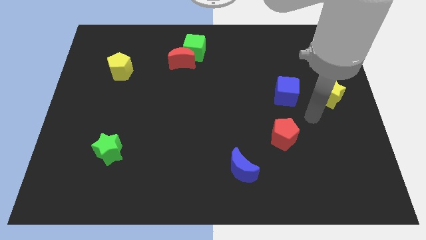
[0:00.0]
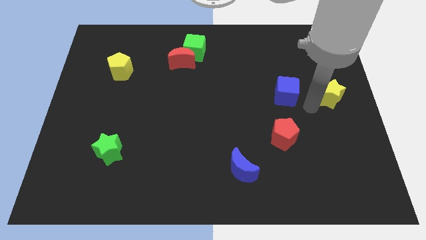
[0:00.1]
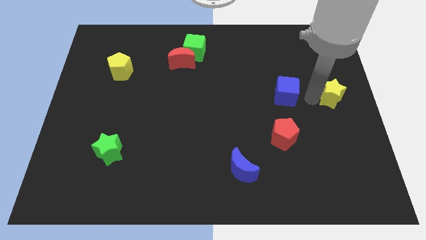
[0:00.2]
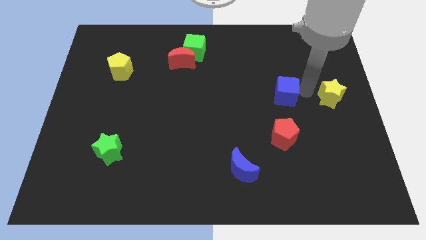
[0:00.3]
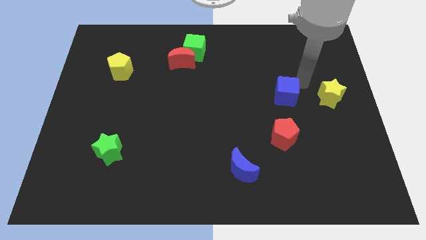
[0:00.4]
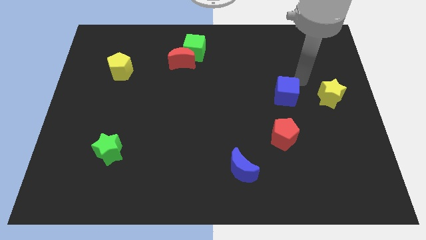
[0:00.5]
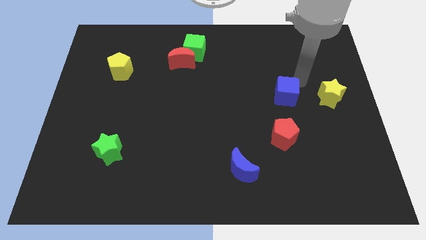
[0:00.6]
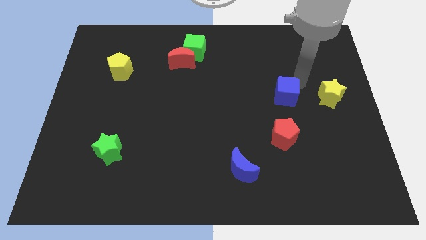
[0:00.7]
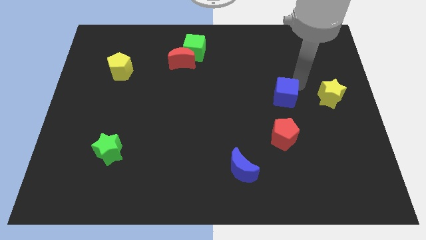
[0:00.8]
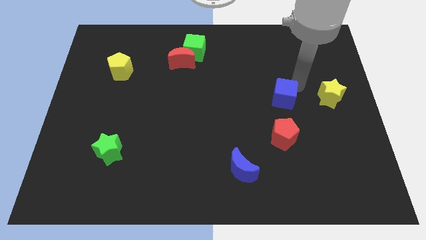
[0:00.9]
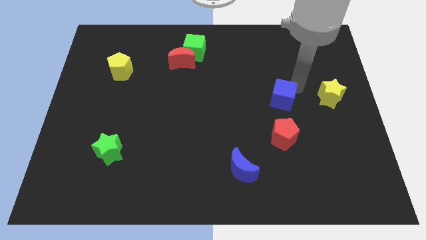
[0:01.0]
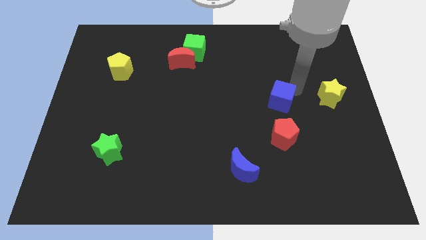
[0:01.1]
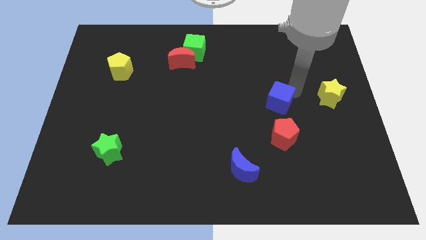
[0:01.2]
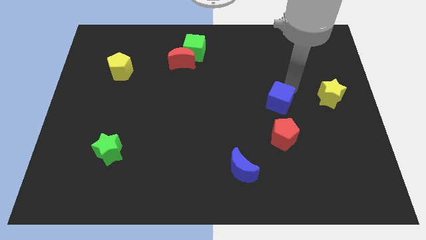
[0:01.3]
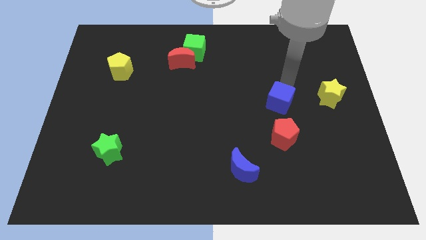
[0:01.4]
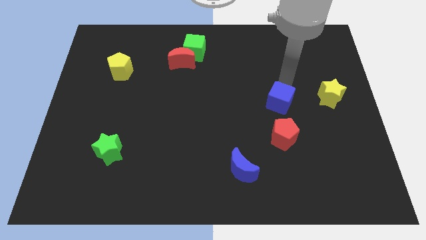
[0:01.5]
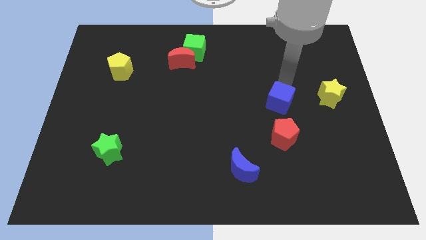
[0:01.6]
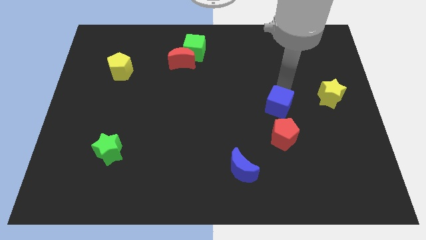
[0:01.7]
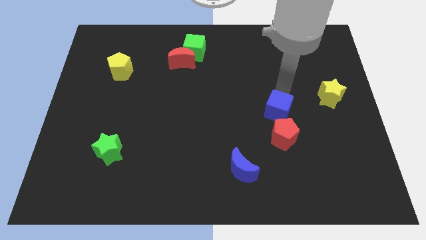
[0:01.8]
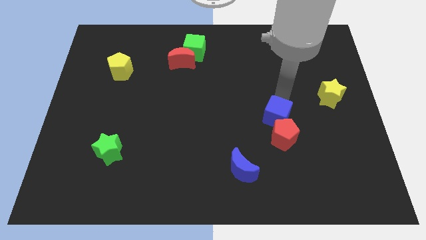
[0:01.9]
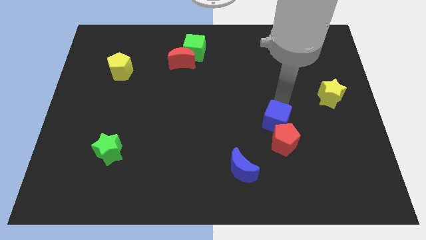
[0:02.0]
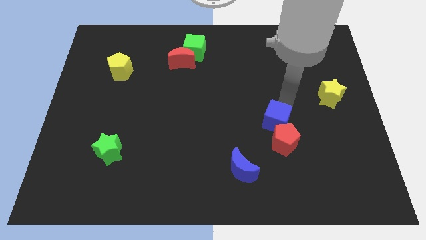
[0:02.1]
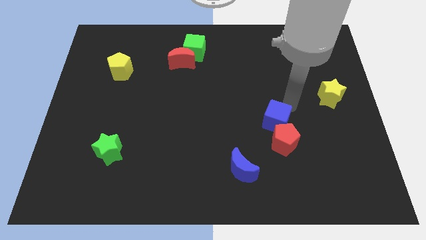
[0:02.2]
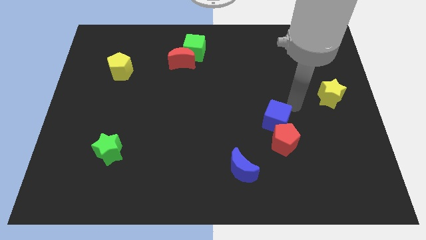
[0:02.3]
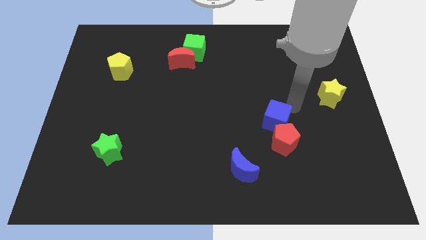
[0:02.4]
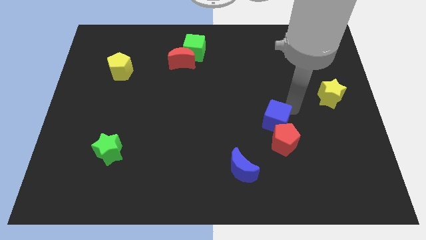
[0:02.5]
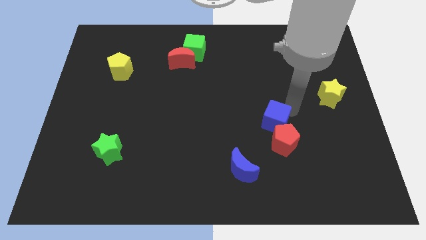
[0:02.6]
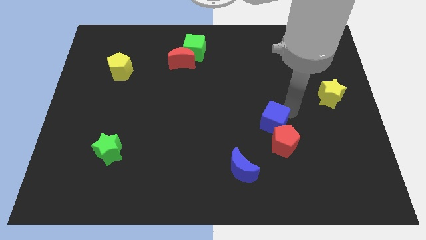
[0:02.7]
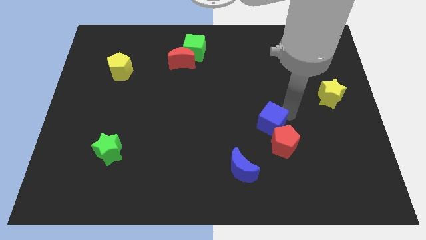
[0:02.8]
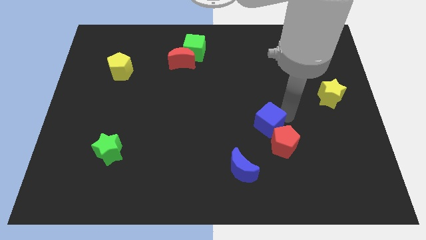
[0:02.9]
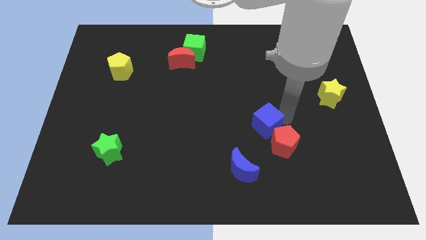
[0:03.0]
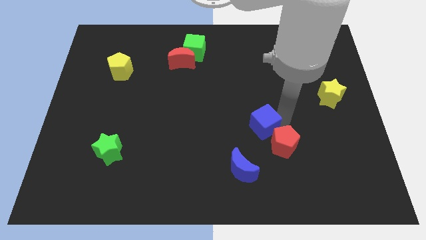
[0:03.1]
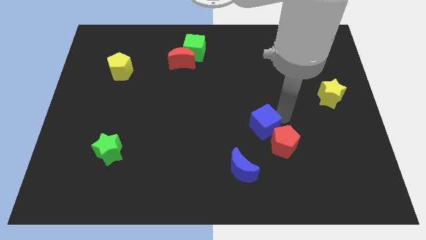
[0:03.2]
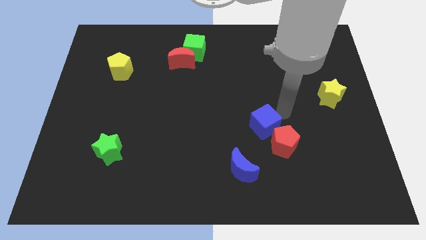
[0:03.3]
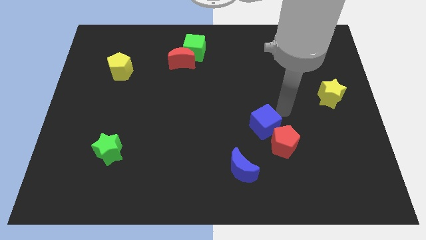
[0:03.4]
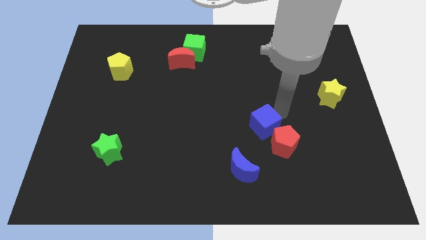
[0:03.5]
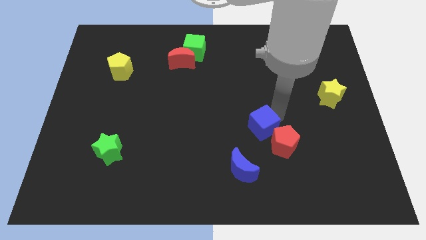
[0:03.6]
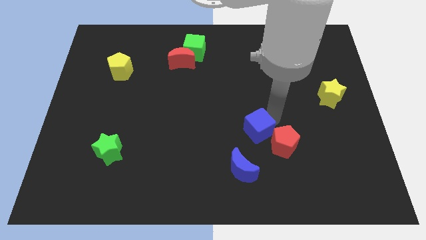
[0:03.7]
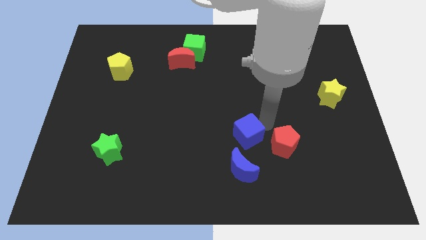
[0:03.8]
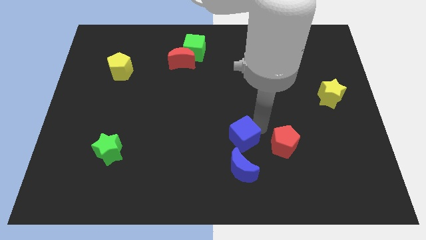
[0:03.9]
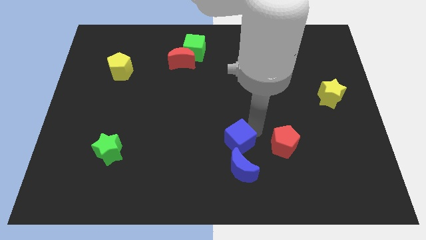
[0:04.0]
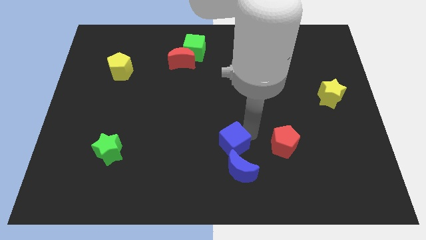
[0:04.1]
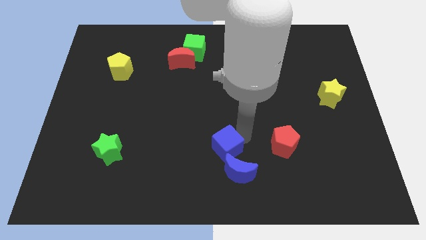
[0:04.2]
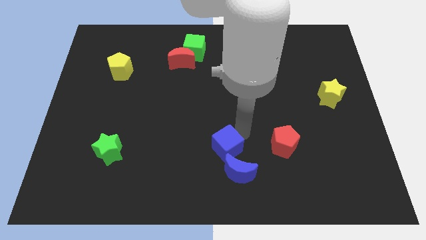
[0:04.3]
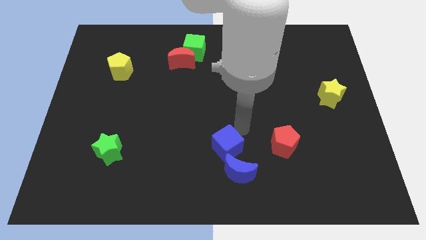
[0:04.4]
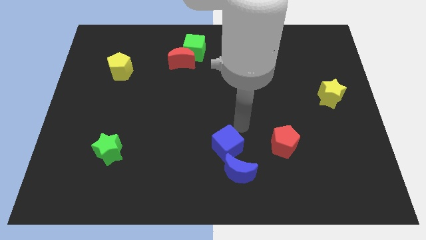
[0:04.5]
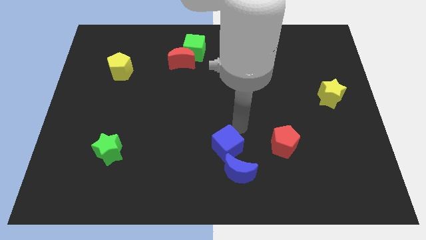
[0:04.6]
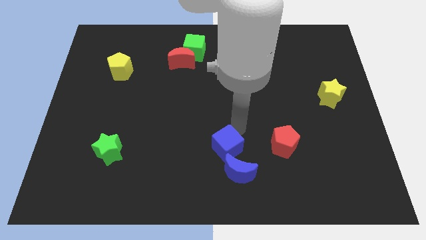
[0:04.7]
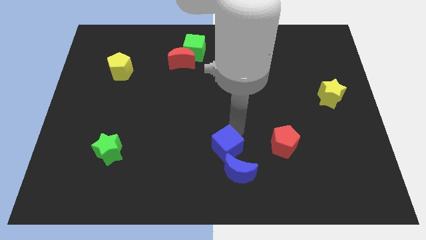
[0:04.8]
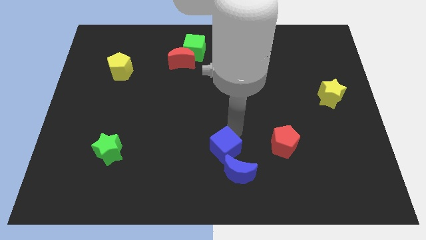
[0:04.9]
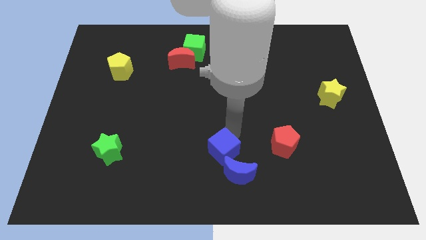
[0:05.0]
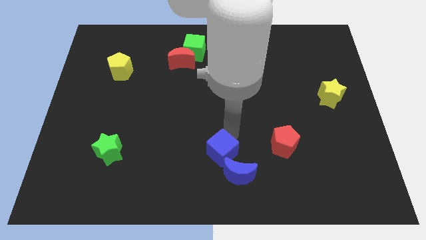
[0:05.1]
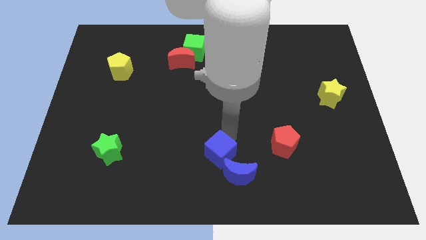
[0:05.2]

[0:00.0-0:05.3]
move the blue cube to the bottom

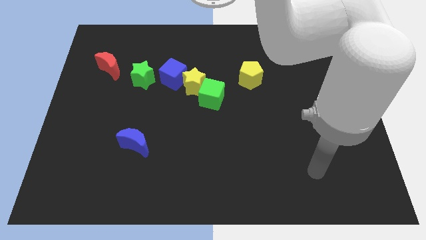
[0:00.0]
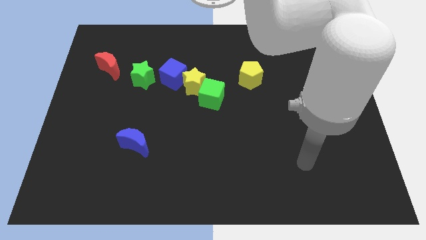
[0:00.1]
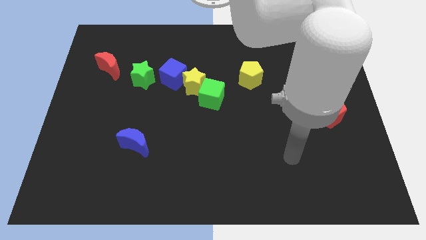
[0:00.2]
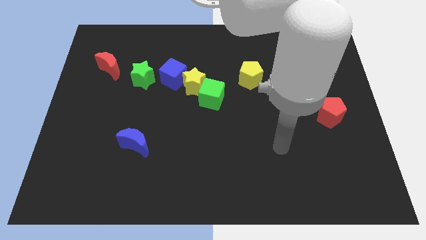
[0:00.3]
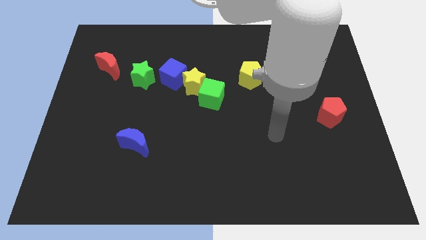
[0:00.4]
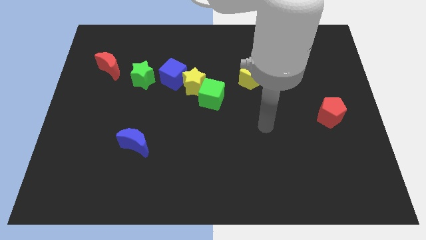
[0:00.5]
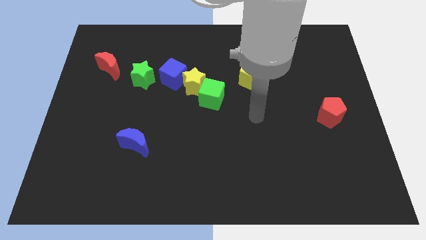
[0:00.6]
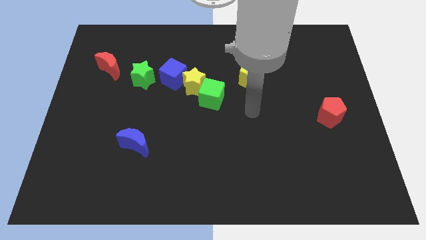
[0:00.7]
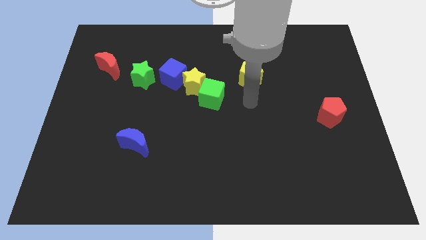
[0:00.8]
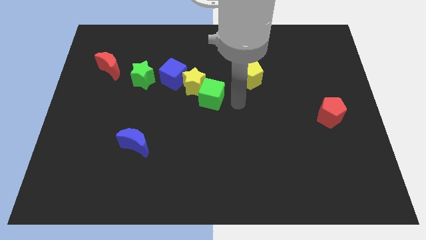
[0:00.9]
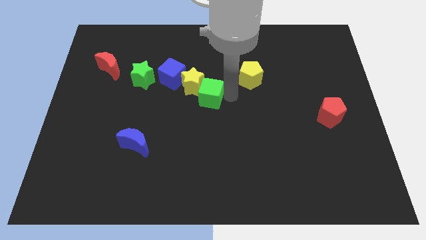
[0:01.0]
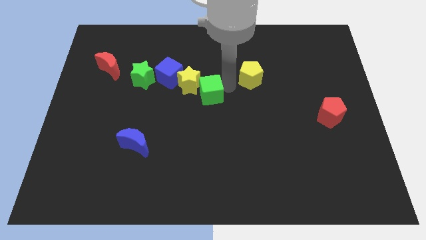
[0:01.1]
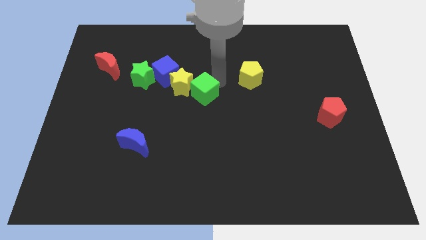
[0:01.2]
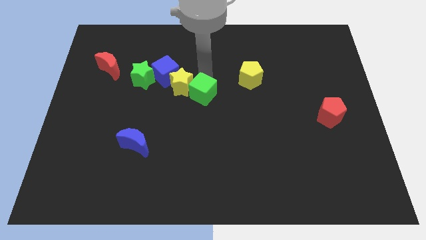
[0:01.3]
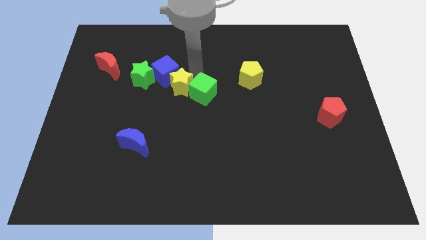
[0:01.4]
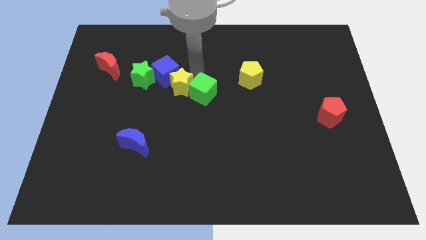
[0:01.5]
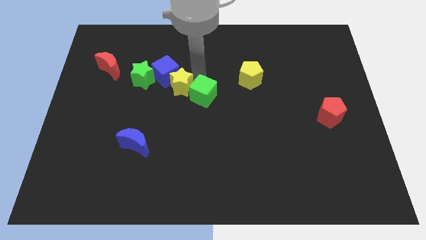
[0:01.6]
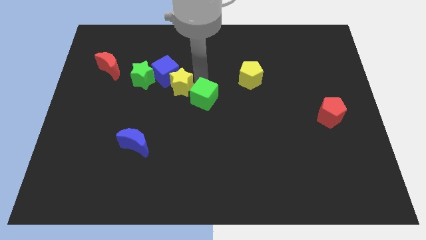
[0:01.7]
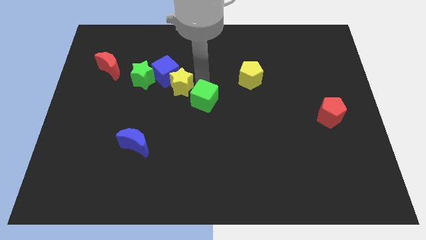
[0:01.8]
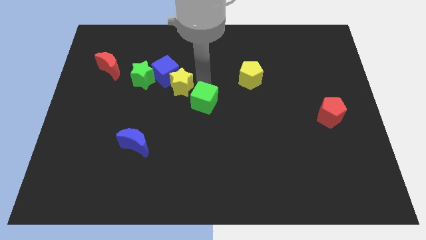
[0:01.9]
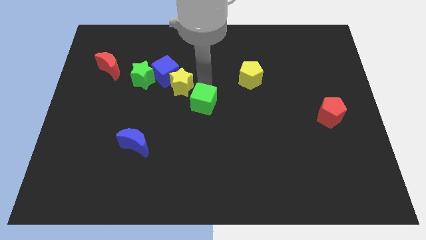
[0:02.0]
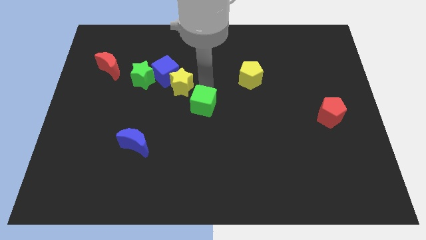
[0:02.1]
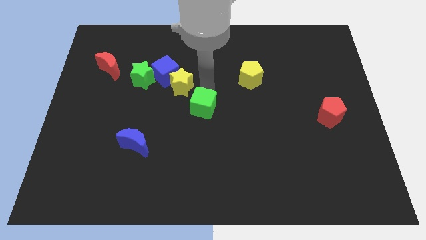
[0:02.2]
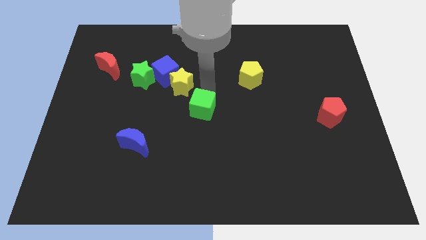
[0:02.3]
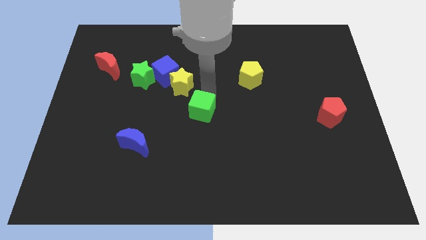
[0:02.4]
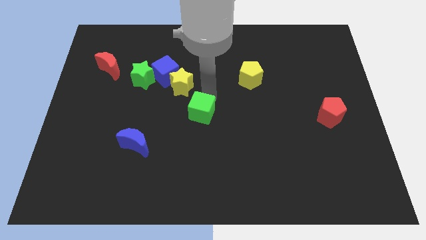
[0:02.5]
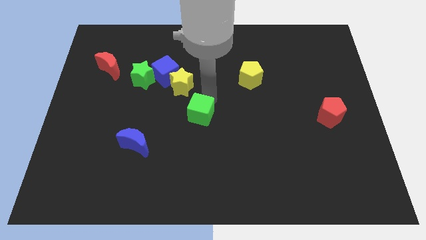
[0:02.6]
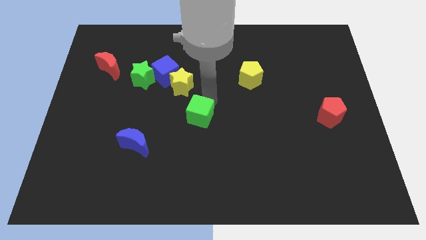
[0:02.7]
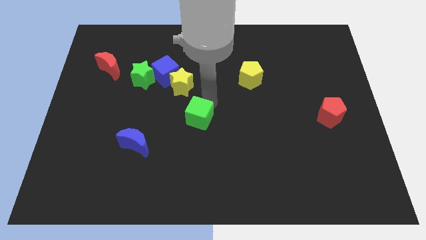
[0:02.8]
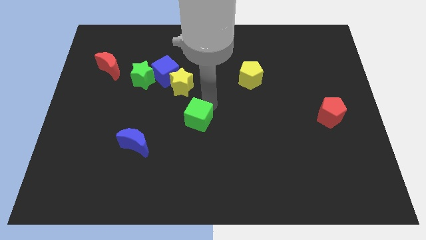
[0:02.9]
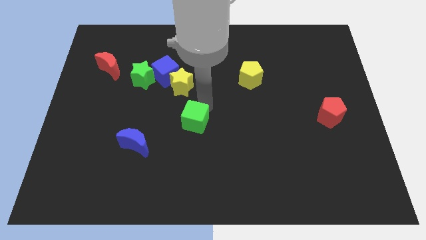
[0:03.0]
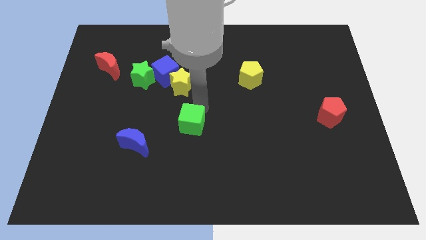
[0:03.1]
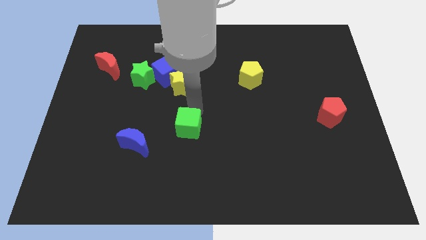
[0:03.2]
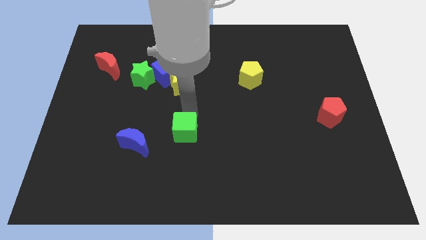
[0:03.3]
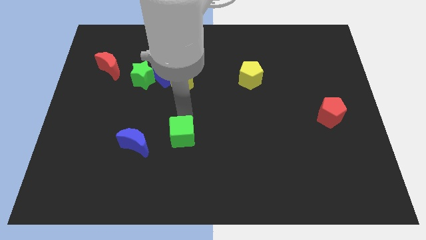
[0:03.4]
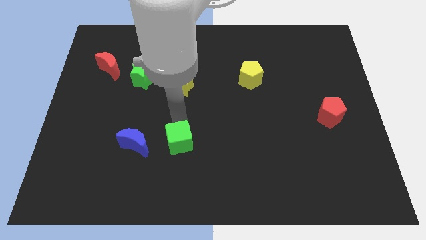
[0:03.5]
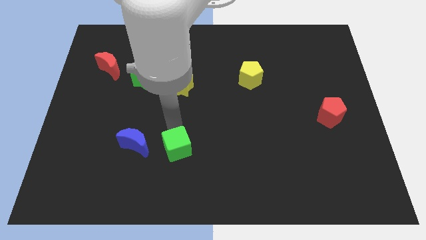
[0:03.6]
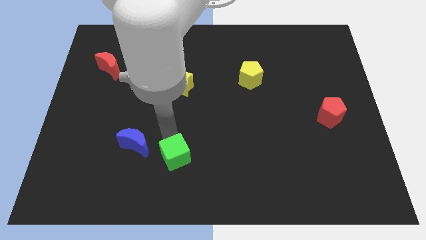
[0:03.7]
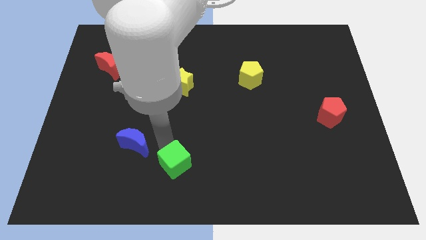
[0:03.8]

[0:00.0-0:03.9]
put the green cube to the bottom side
